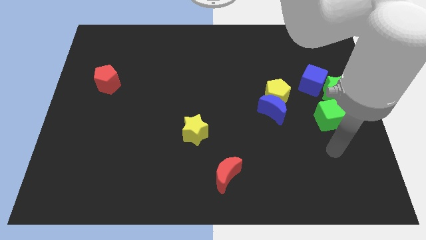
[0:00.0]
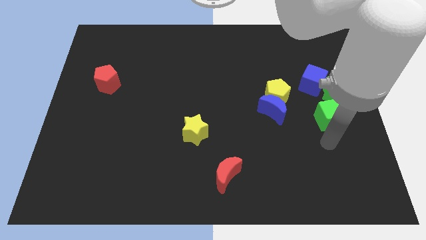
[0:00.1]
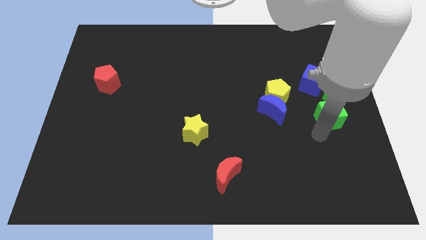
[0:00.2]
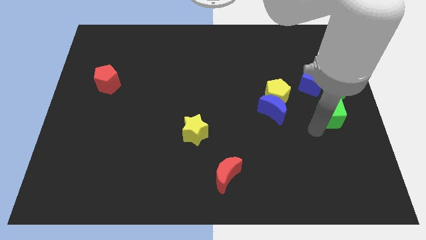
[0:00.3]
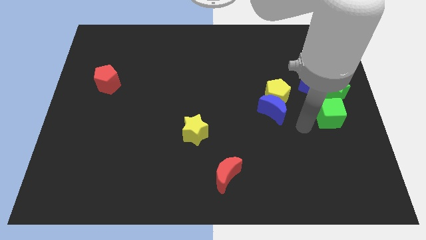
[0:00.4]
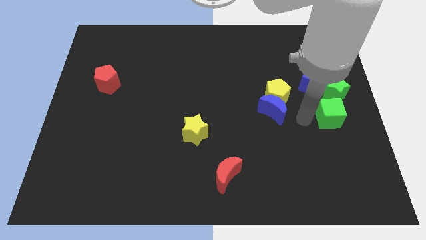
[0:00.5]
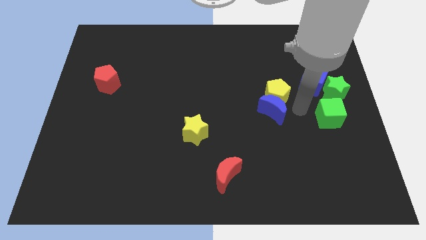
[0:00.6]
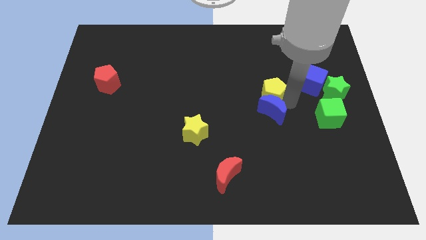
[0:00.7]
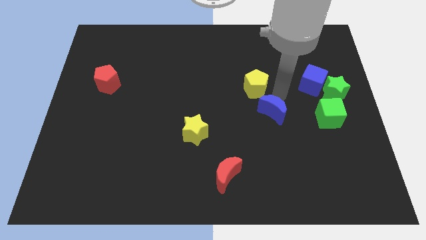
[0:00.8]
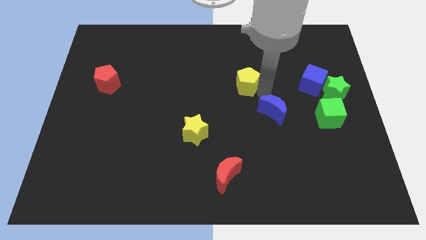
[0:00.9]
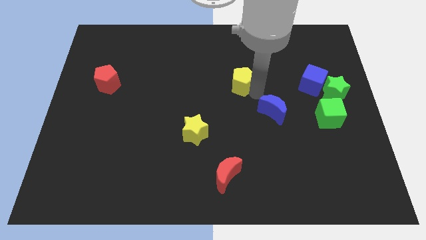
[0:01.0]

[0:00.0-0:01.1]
pull the blue moon apart from the yellow pentagon

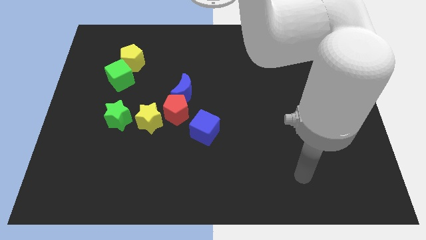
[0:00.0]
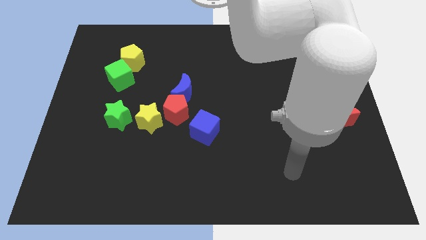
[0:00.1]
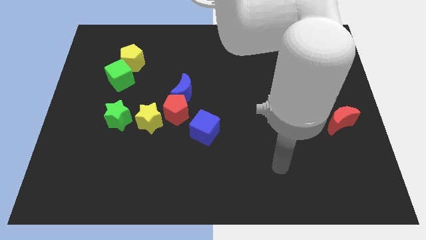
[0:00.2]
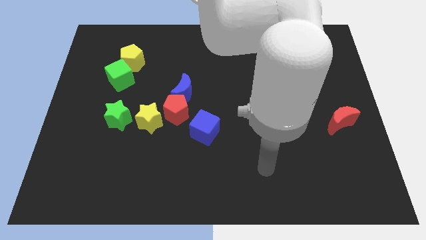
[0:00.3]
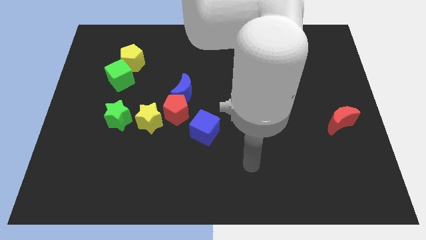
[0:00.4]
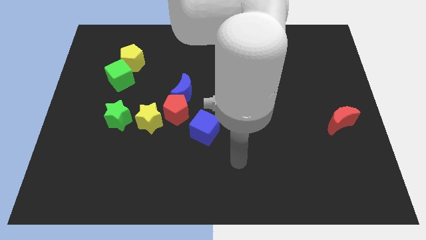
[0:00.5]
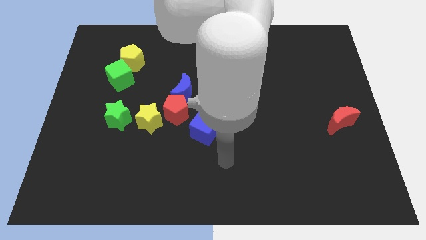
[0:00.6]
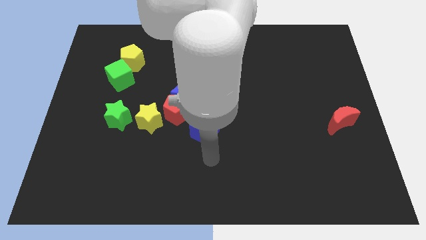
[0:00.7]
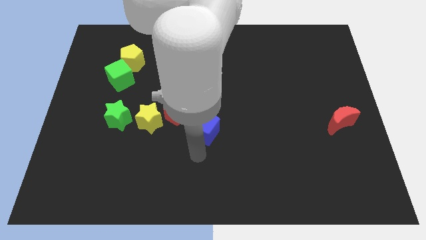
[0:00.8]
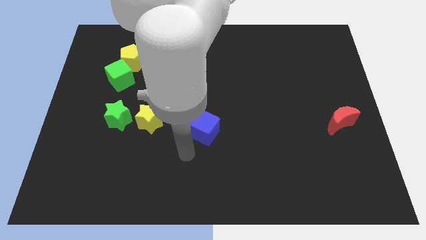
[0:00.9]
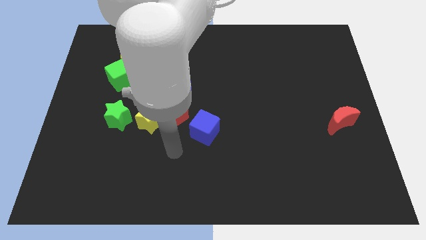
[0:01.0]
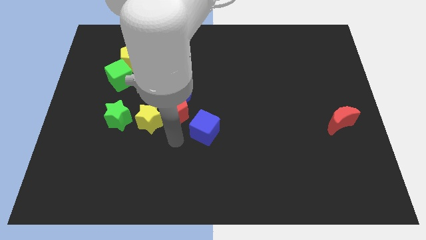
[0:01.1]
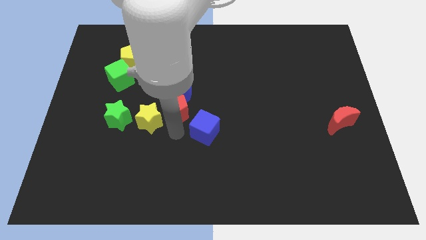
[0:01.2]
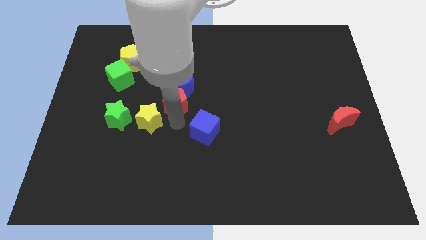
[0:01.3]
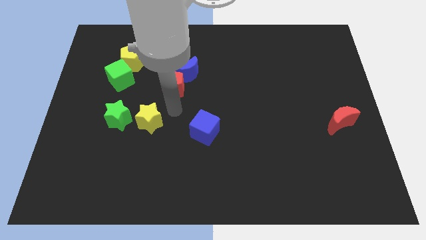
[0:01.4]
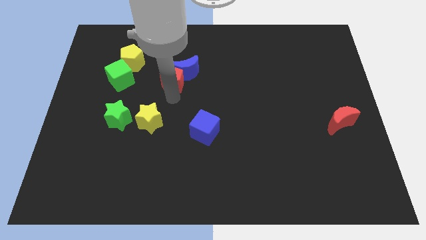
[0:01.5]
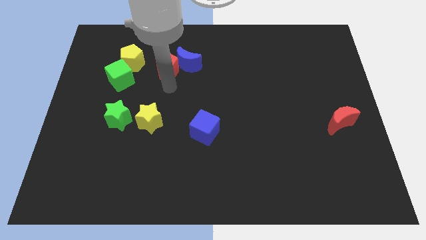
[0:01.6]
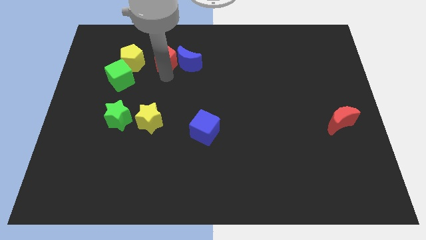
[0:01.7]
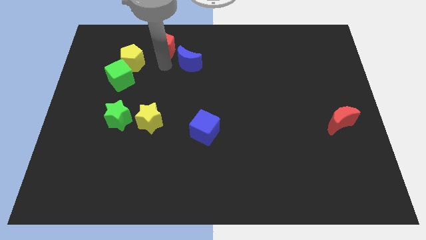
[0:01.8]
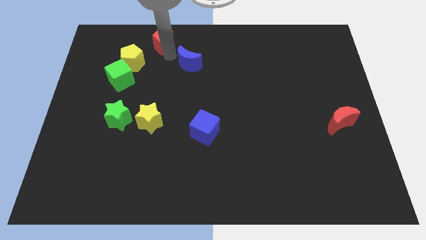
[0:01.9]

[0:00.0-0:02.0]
pull the blue moon apart from the red pentagon

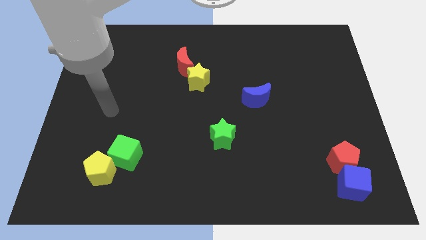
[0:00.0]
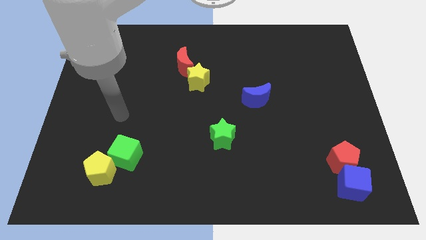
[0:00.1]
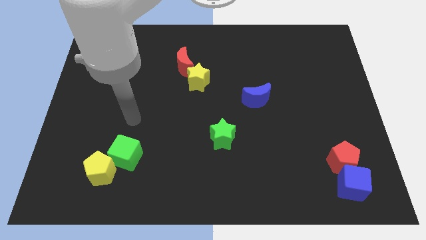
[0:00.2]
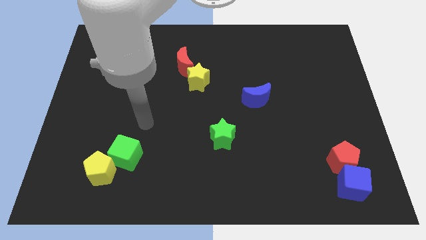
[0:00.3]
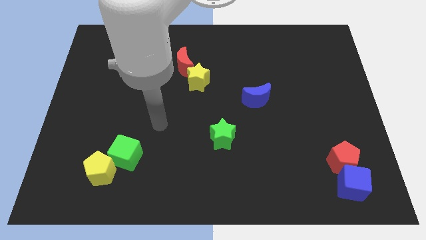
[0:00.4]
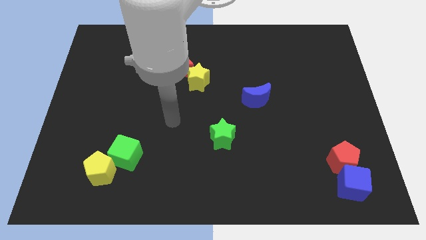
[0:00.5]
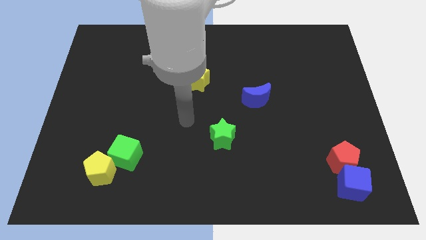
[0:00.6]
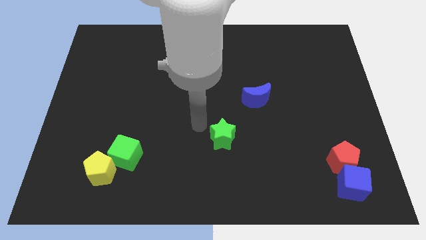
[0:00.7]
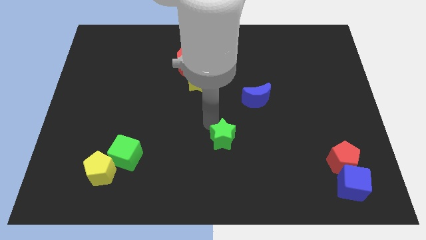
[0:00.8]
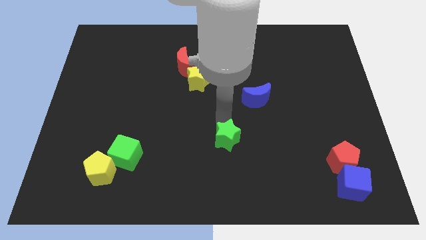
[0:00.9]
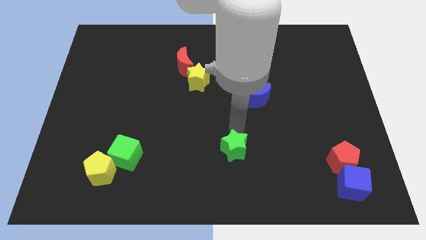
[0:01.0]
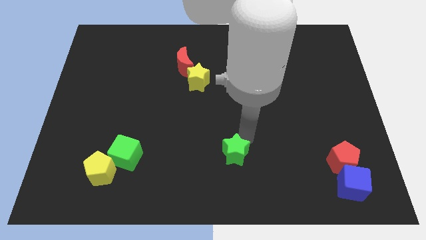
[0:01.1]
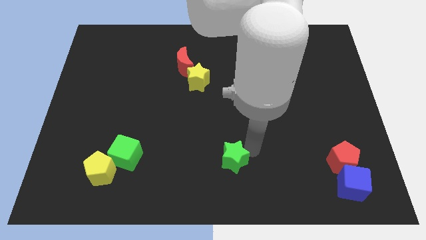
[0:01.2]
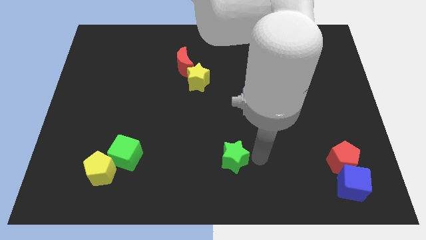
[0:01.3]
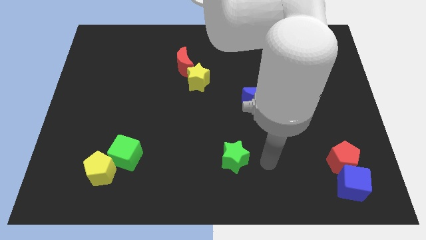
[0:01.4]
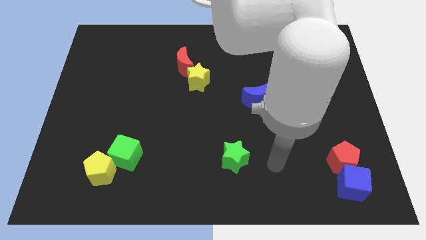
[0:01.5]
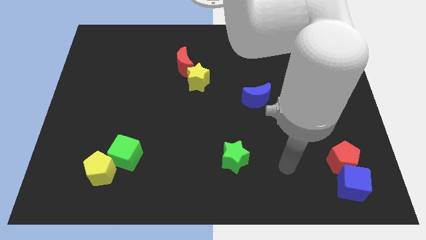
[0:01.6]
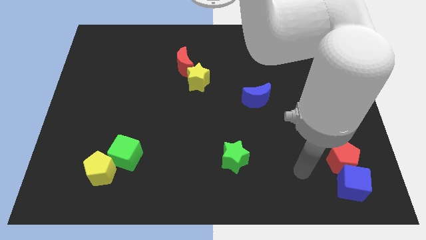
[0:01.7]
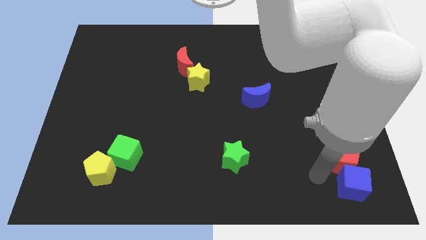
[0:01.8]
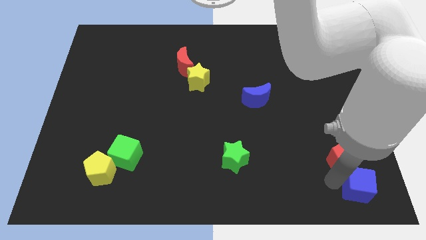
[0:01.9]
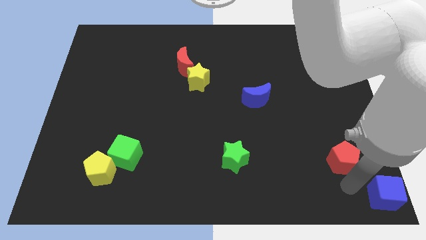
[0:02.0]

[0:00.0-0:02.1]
move the red pentagon away from the blue cube

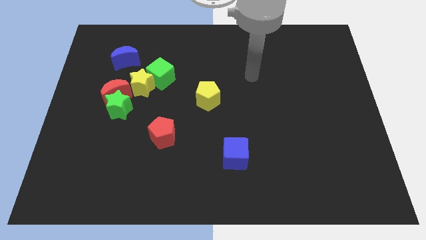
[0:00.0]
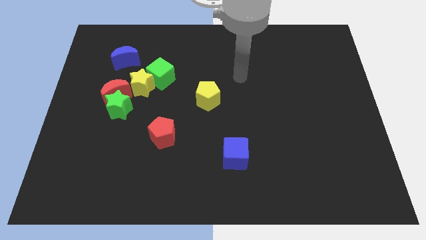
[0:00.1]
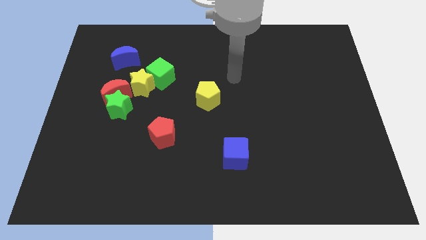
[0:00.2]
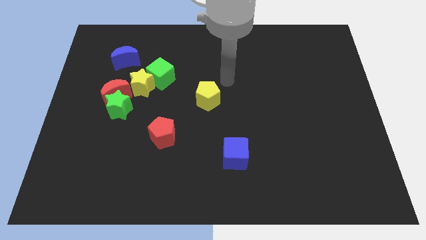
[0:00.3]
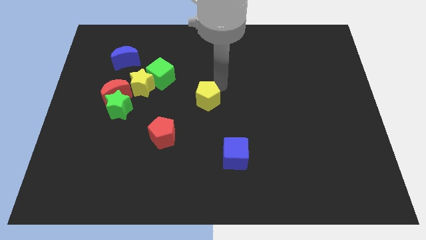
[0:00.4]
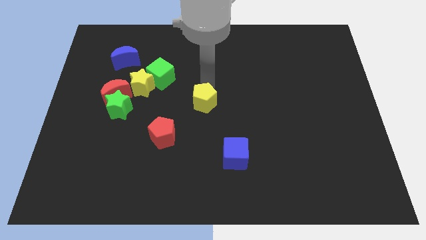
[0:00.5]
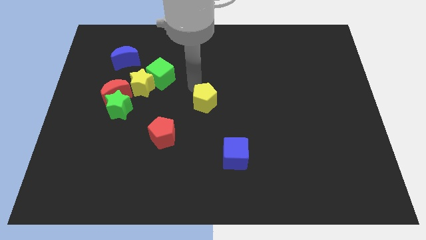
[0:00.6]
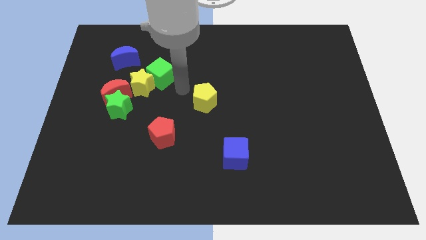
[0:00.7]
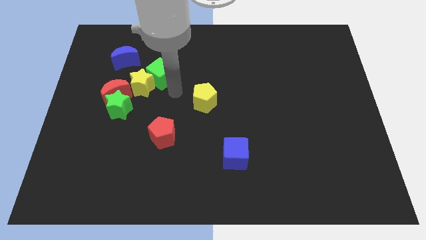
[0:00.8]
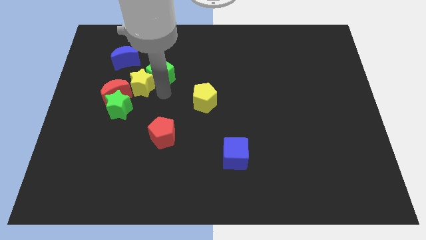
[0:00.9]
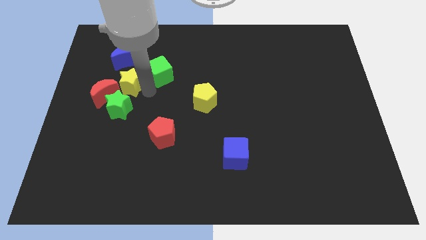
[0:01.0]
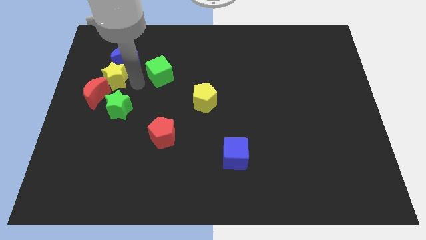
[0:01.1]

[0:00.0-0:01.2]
move the green cube away from the yellow star

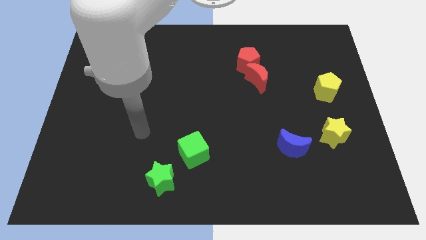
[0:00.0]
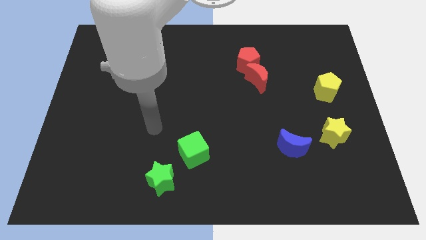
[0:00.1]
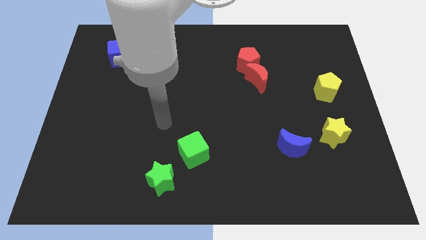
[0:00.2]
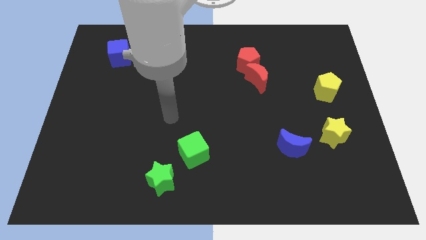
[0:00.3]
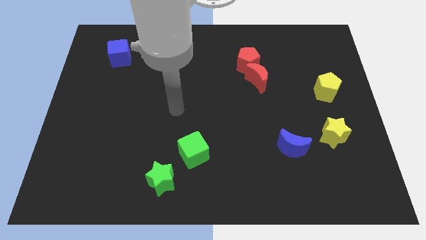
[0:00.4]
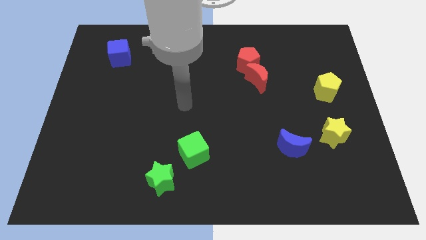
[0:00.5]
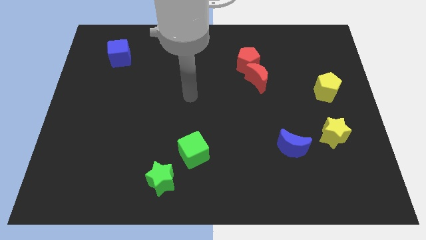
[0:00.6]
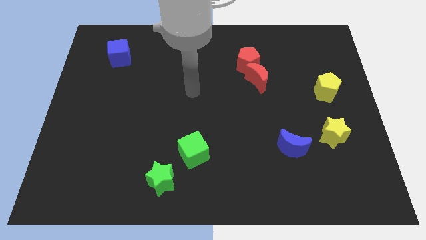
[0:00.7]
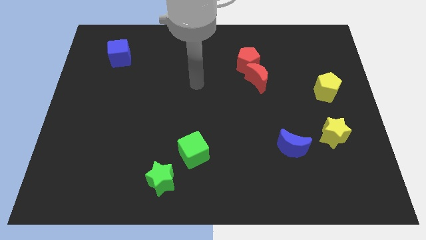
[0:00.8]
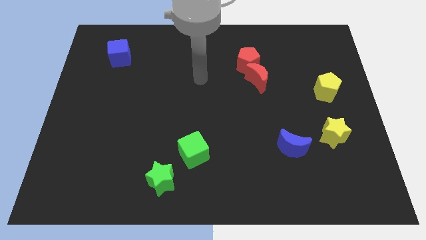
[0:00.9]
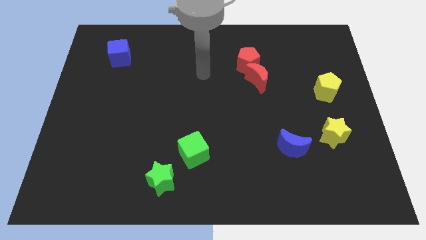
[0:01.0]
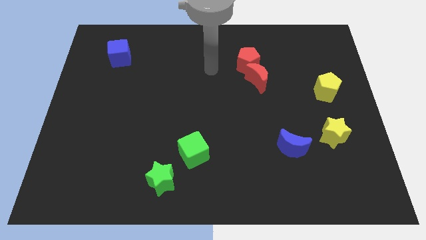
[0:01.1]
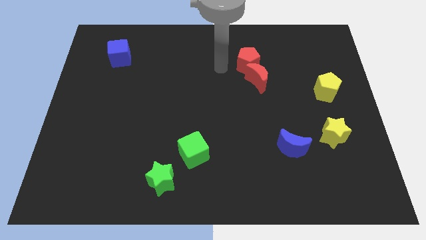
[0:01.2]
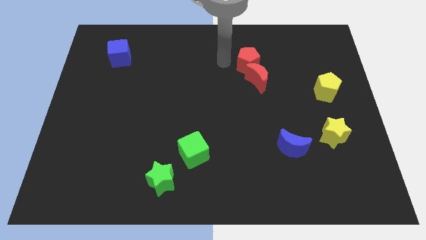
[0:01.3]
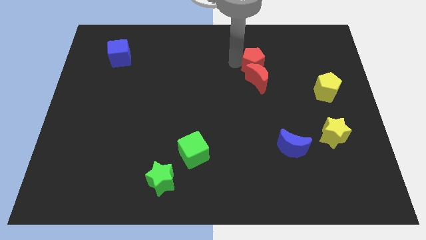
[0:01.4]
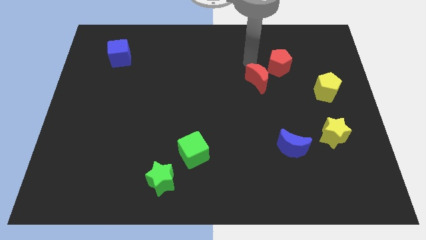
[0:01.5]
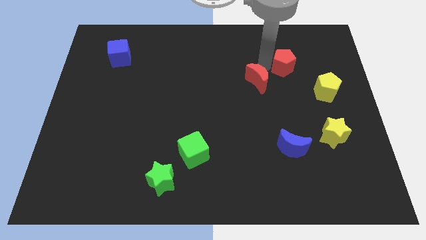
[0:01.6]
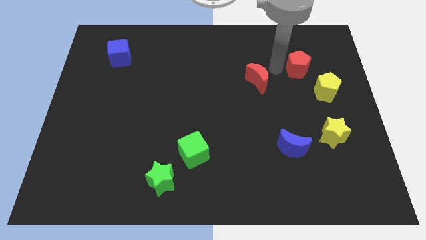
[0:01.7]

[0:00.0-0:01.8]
move the red moon away from the red pentagon

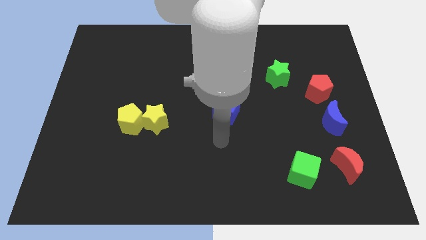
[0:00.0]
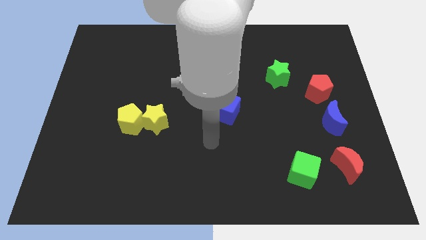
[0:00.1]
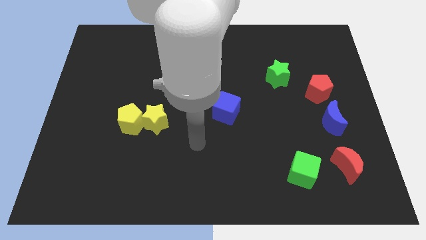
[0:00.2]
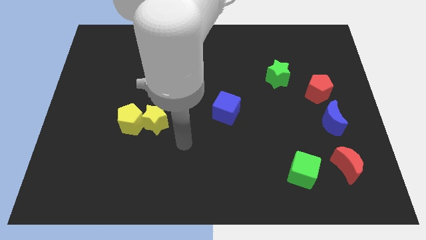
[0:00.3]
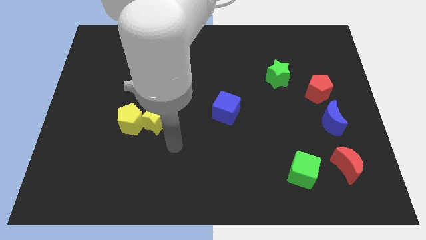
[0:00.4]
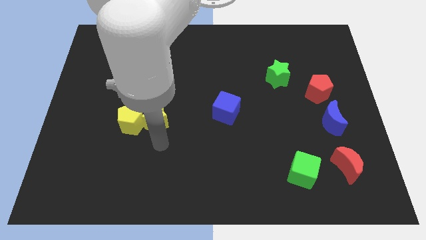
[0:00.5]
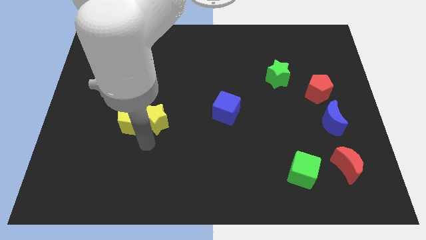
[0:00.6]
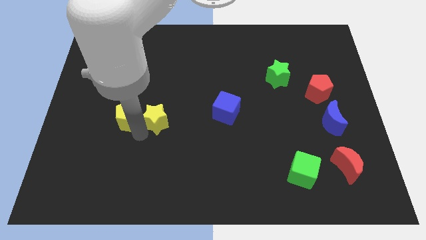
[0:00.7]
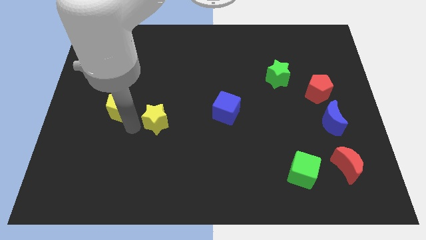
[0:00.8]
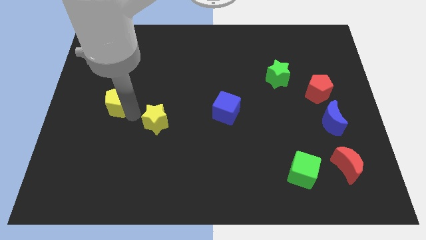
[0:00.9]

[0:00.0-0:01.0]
move the yellow star away from the yellow pentagon

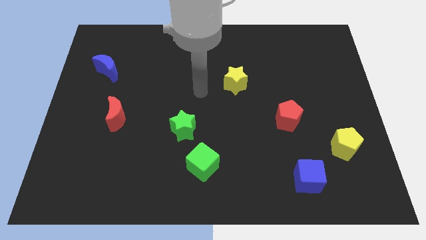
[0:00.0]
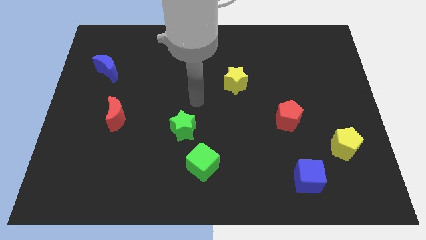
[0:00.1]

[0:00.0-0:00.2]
move the green cube away from the green star
